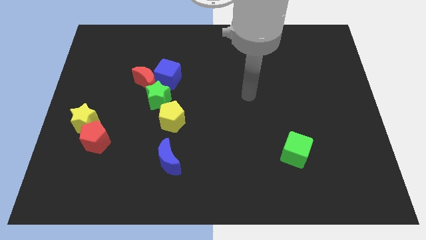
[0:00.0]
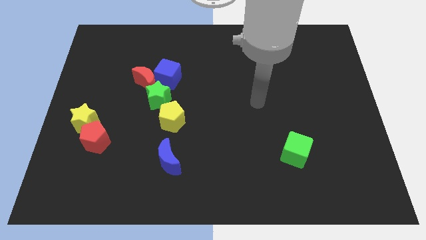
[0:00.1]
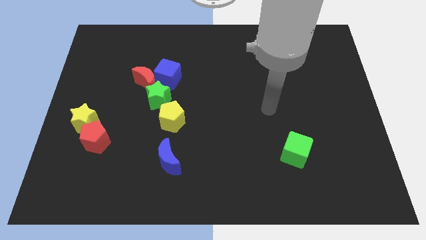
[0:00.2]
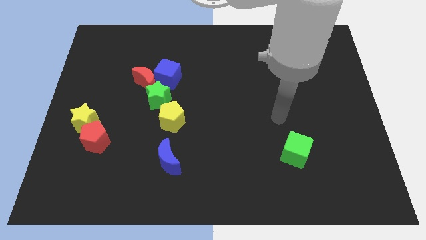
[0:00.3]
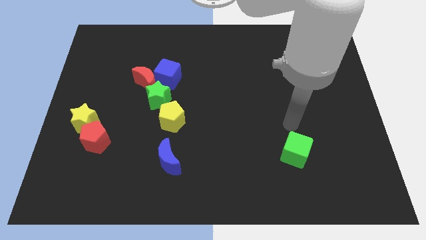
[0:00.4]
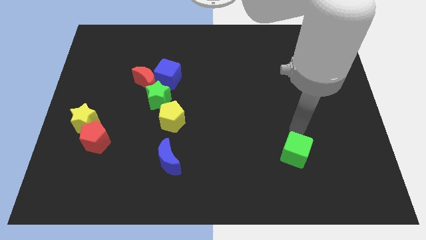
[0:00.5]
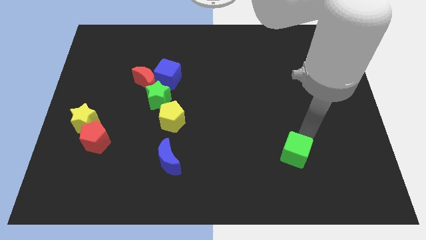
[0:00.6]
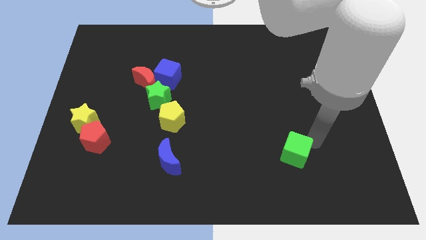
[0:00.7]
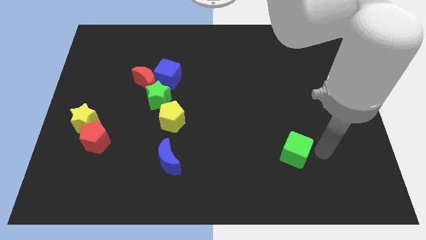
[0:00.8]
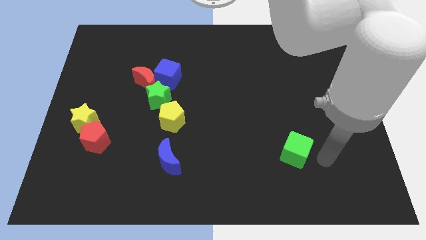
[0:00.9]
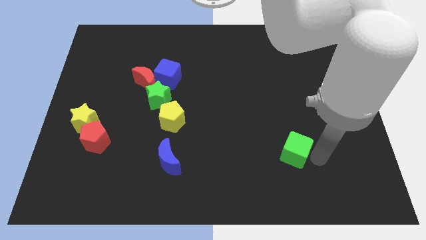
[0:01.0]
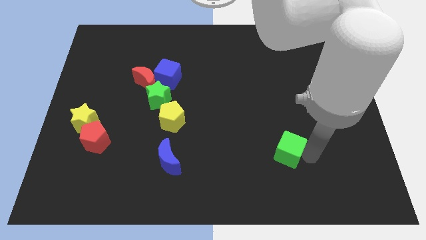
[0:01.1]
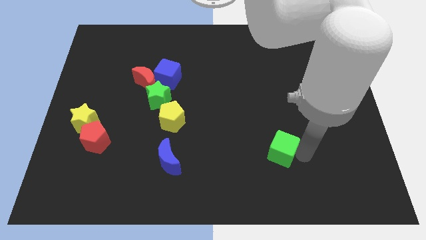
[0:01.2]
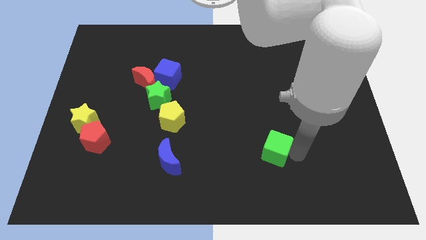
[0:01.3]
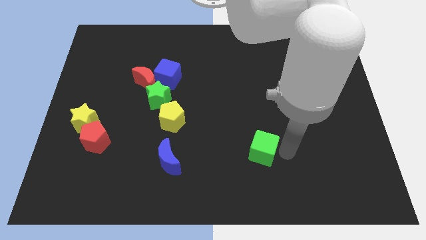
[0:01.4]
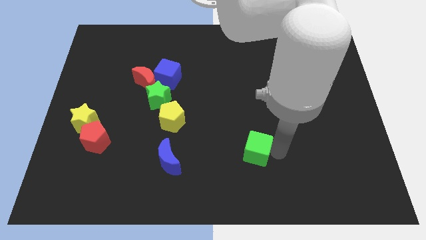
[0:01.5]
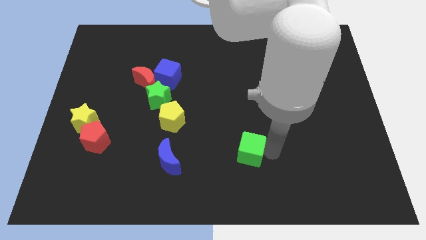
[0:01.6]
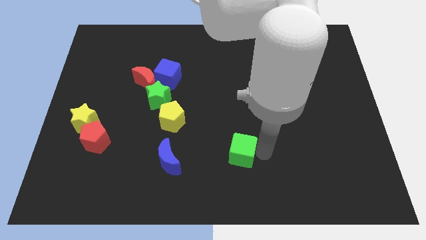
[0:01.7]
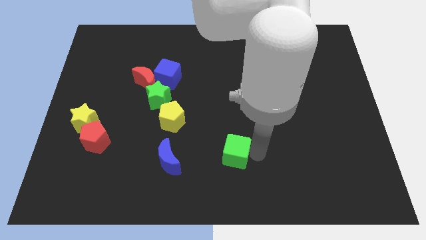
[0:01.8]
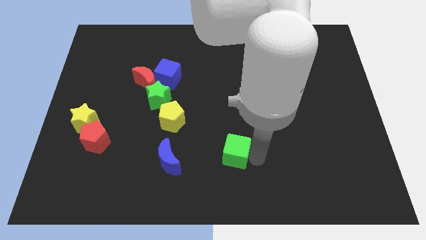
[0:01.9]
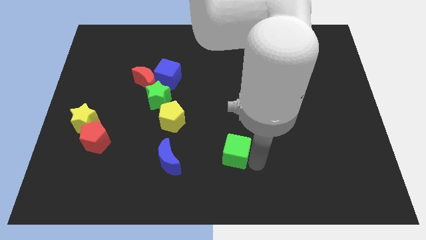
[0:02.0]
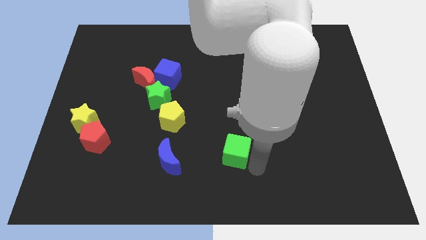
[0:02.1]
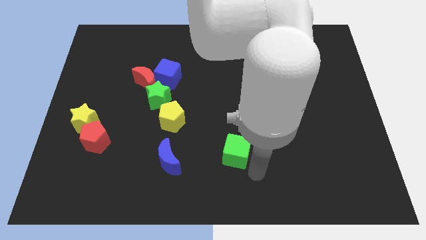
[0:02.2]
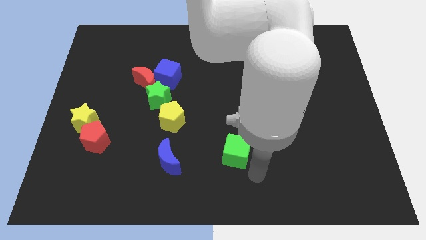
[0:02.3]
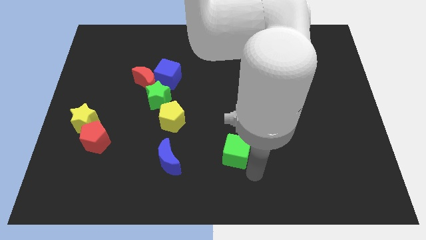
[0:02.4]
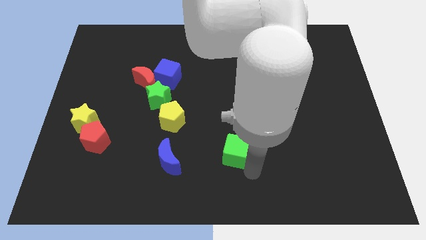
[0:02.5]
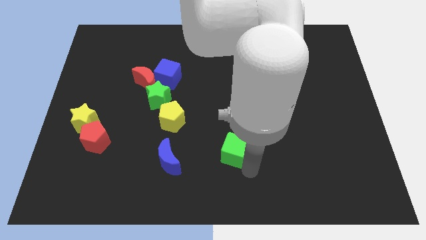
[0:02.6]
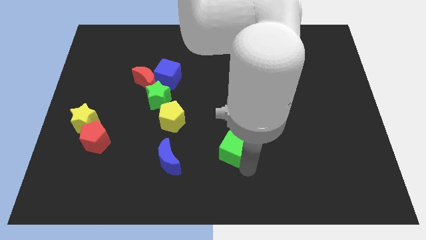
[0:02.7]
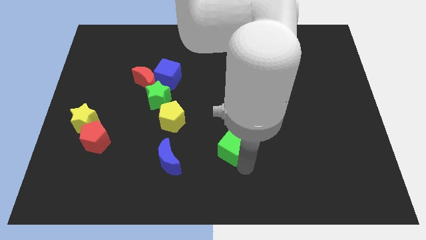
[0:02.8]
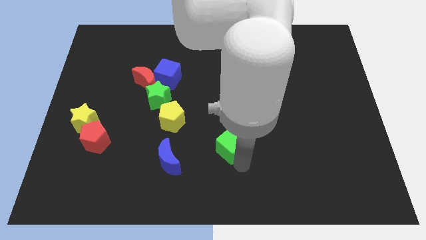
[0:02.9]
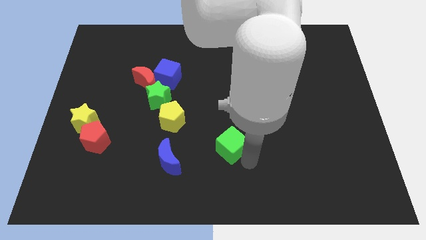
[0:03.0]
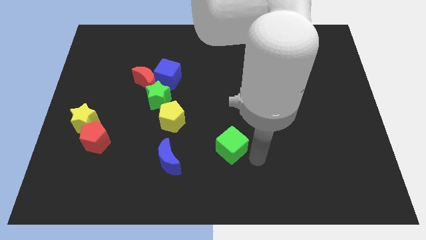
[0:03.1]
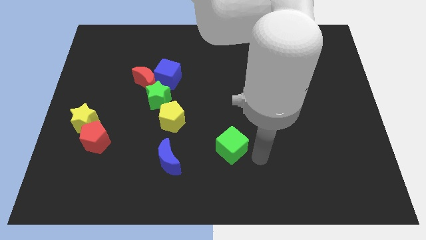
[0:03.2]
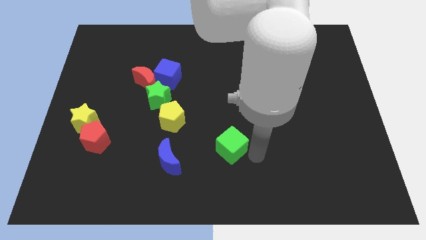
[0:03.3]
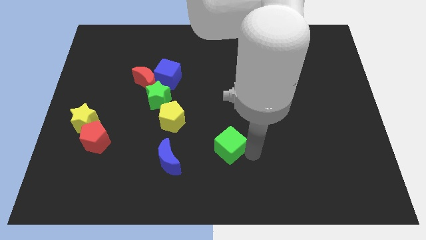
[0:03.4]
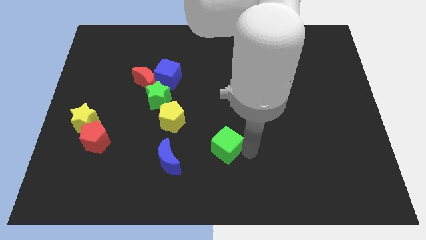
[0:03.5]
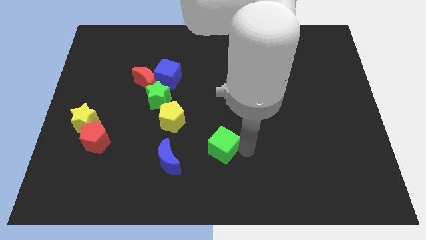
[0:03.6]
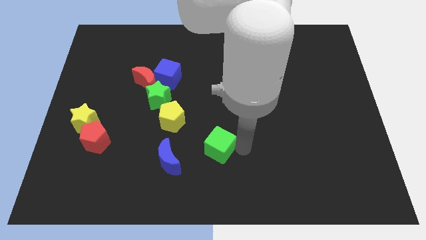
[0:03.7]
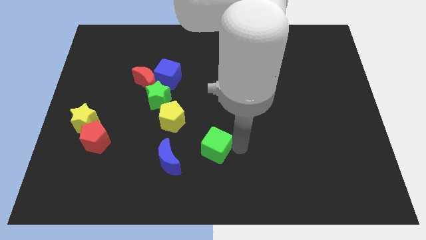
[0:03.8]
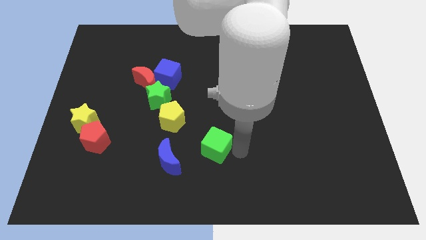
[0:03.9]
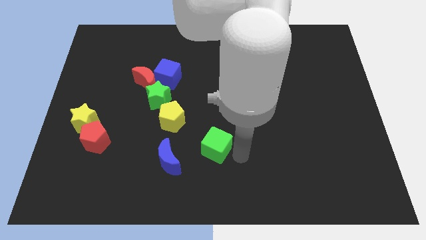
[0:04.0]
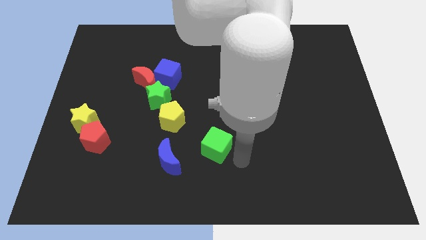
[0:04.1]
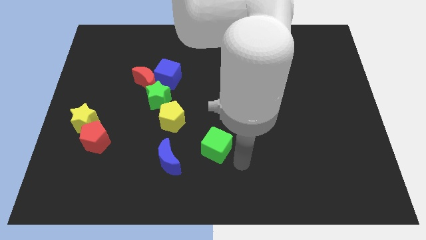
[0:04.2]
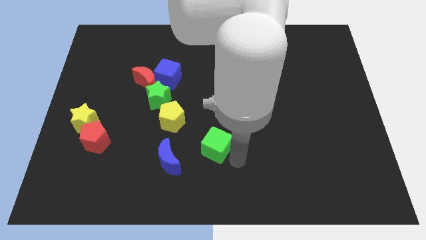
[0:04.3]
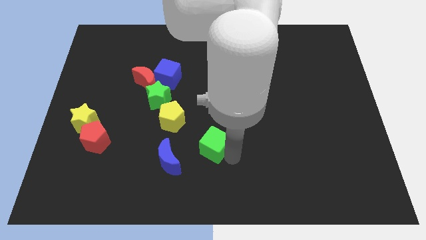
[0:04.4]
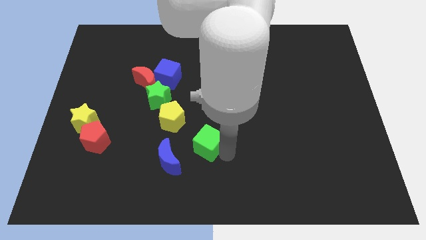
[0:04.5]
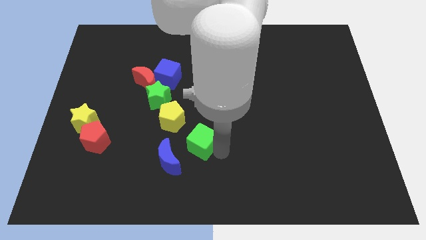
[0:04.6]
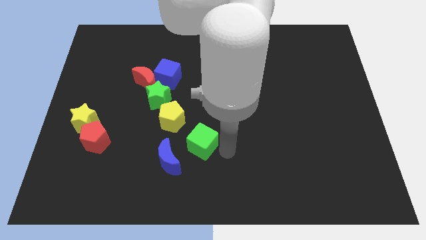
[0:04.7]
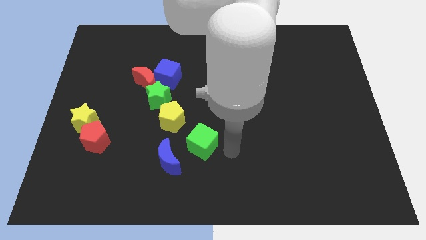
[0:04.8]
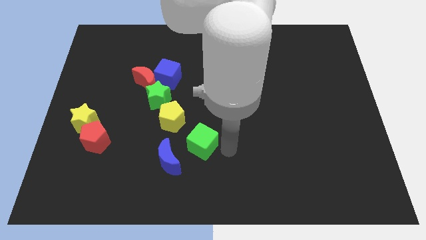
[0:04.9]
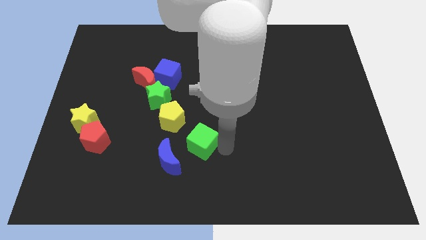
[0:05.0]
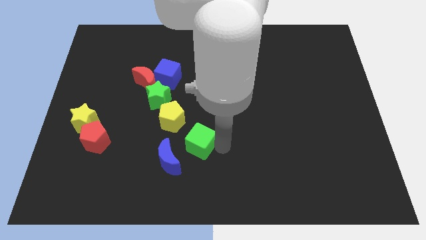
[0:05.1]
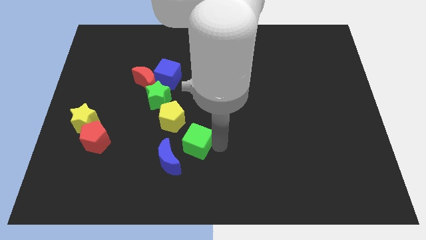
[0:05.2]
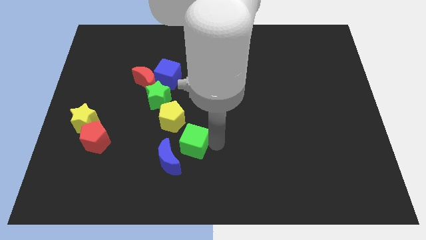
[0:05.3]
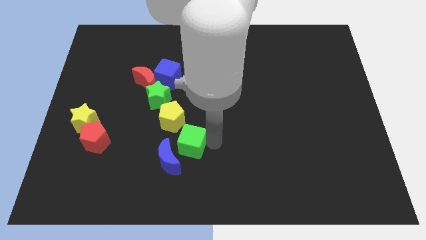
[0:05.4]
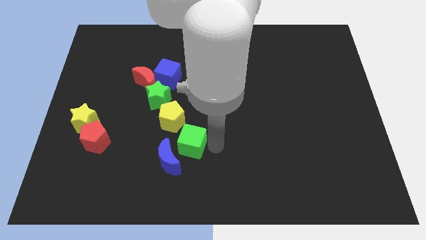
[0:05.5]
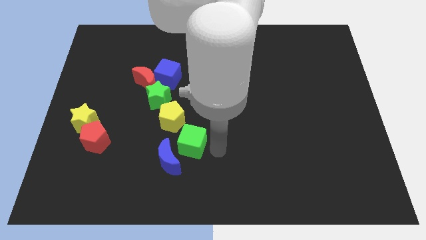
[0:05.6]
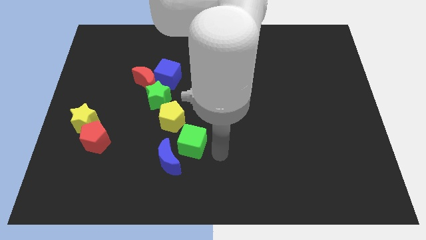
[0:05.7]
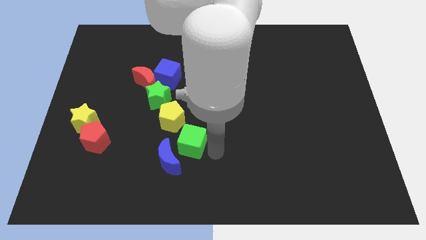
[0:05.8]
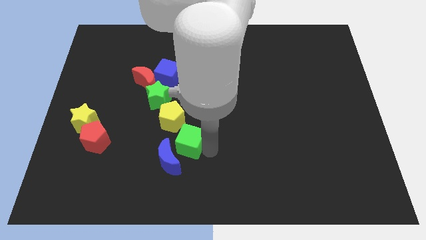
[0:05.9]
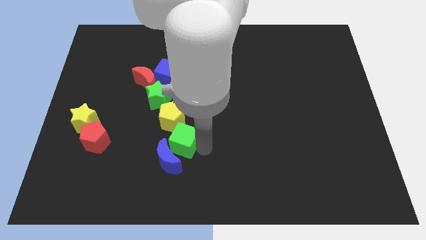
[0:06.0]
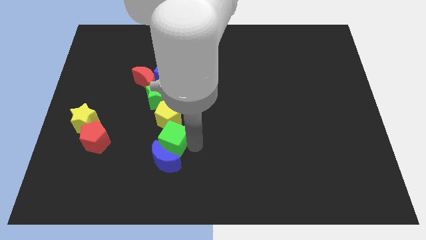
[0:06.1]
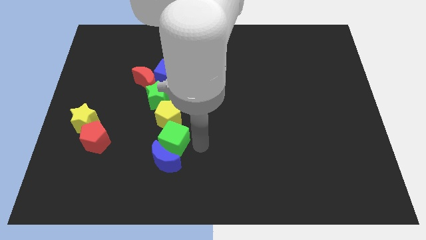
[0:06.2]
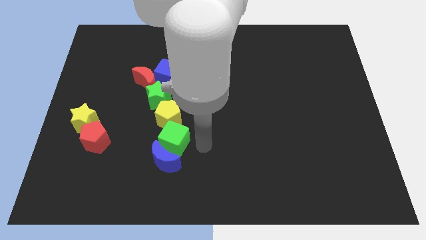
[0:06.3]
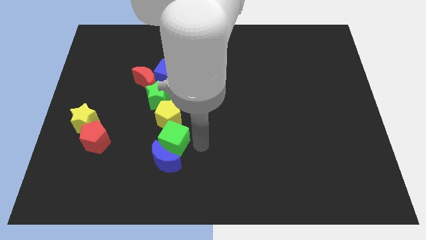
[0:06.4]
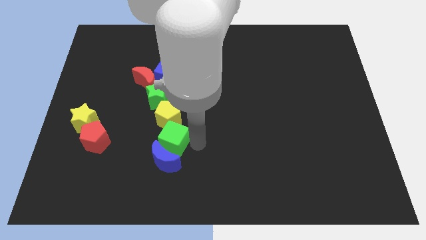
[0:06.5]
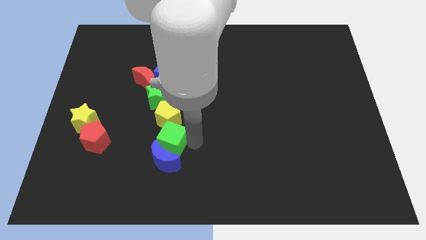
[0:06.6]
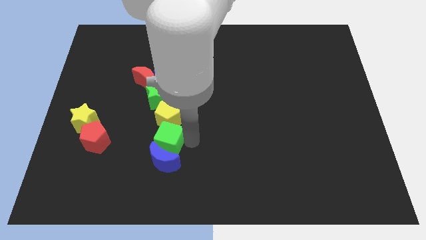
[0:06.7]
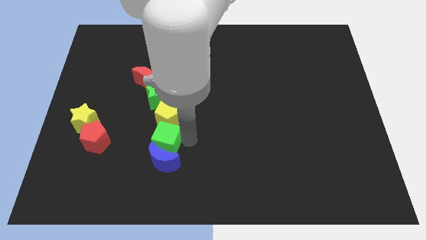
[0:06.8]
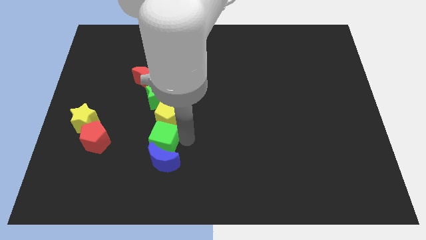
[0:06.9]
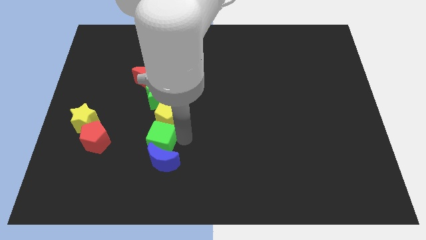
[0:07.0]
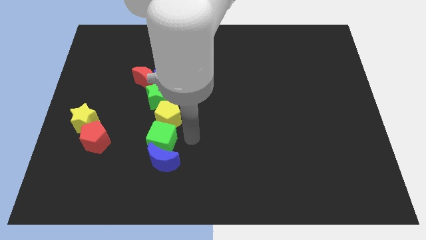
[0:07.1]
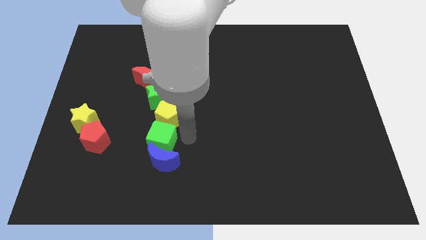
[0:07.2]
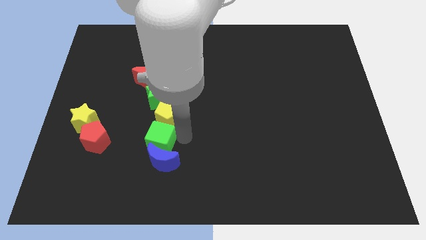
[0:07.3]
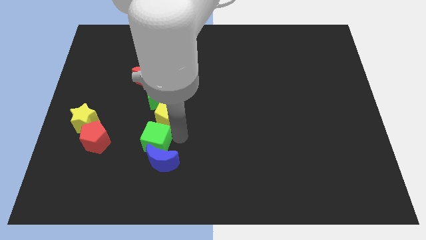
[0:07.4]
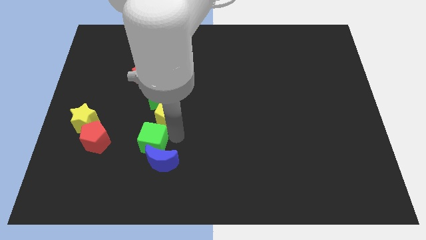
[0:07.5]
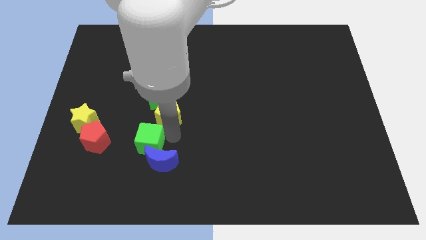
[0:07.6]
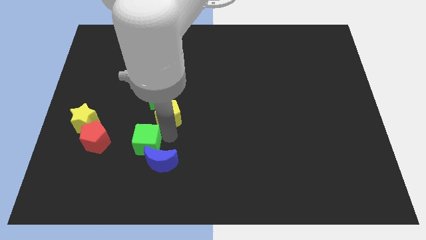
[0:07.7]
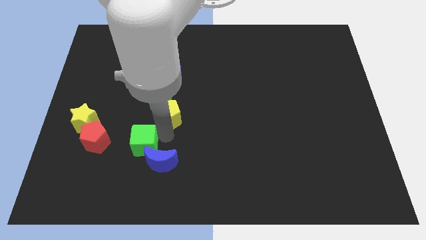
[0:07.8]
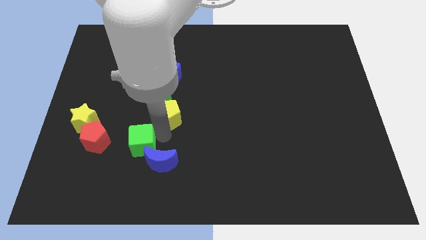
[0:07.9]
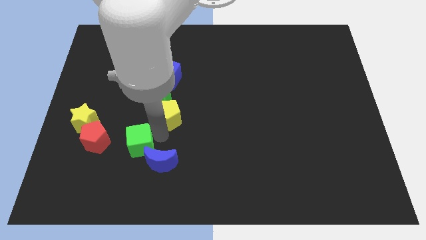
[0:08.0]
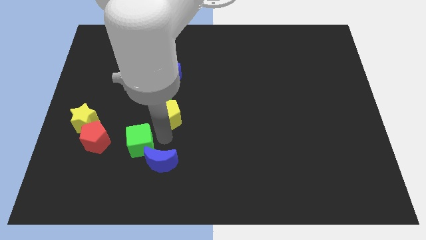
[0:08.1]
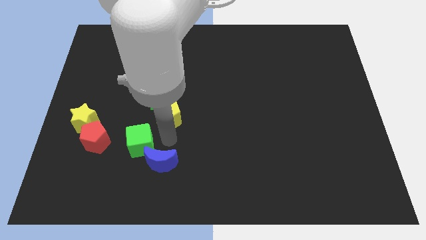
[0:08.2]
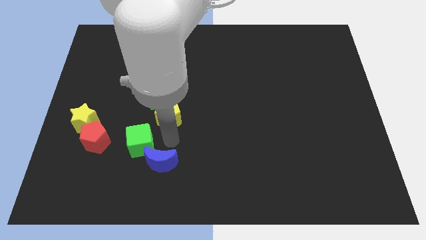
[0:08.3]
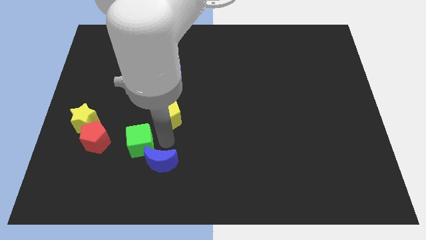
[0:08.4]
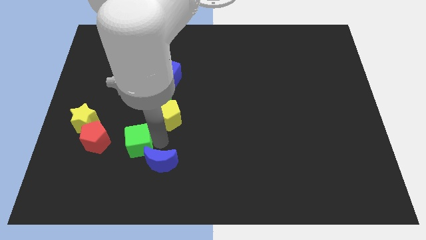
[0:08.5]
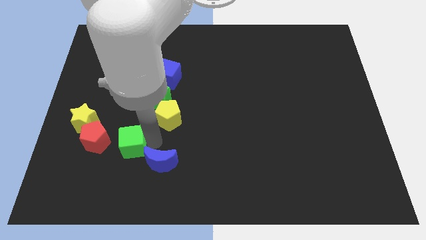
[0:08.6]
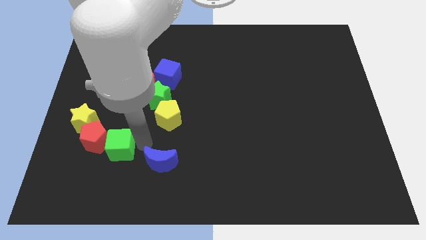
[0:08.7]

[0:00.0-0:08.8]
push the green cube next to the red pentagon
